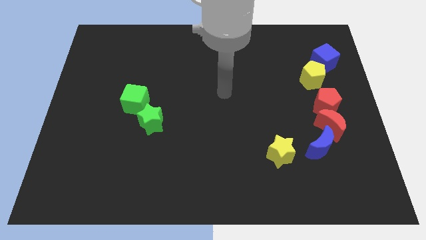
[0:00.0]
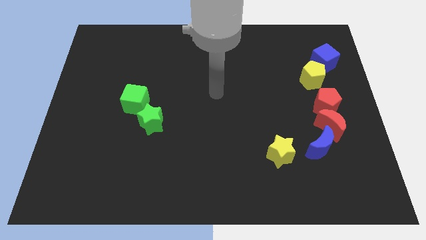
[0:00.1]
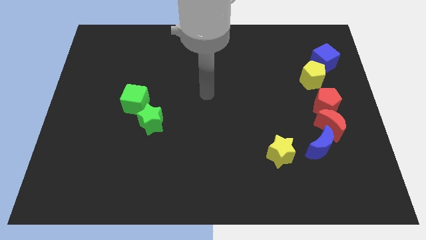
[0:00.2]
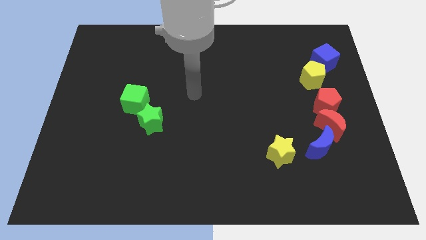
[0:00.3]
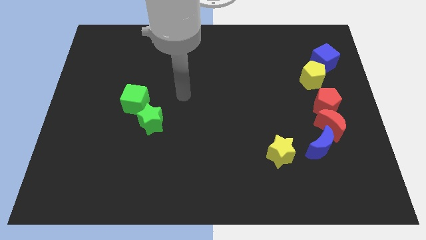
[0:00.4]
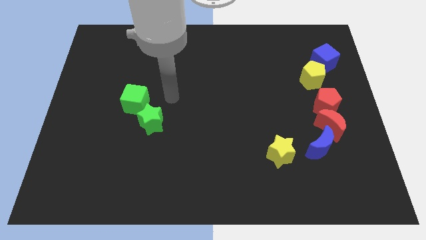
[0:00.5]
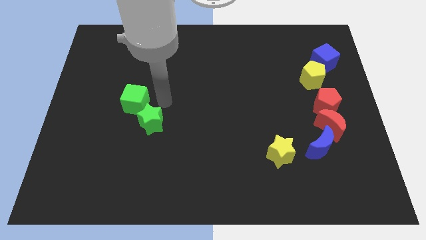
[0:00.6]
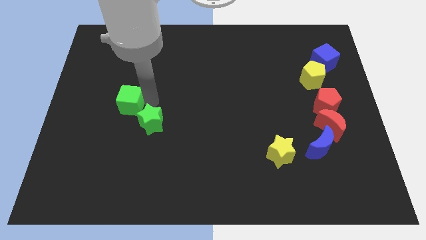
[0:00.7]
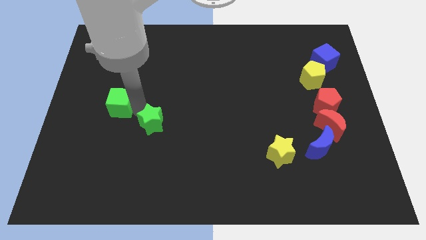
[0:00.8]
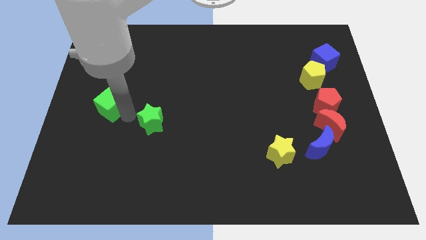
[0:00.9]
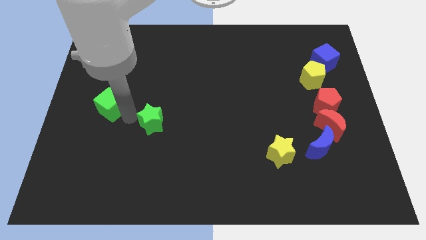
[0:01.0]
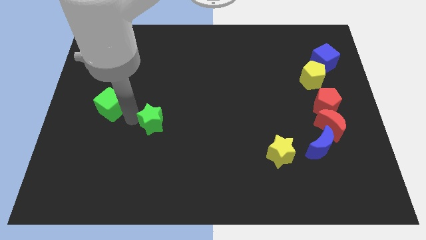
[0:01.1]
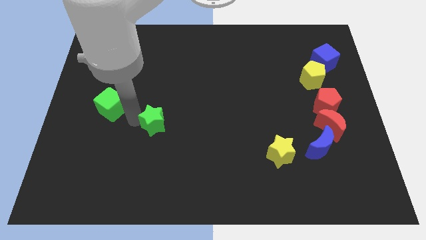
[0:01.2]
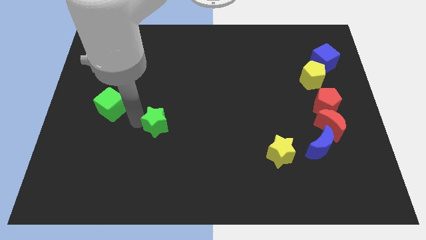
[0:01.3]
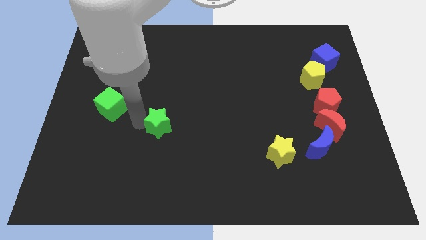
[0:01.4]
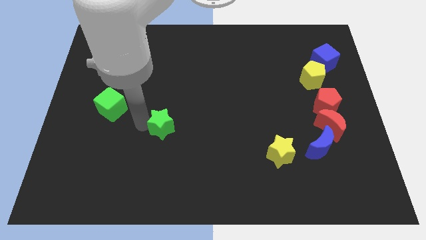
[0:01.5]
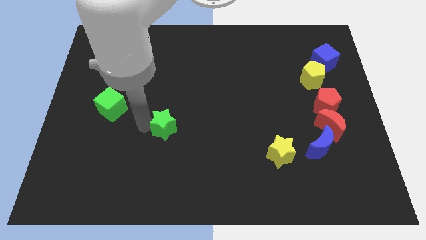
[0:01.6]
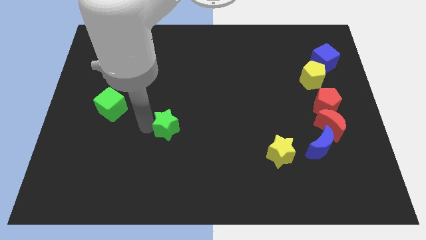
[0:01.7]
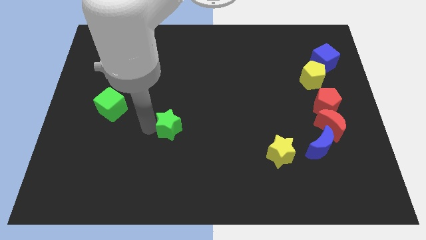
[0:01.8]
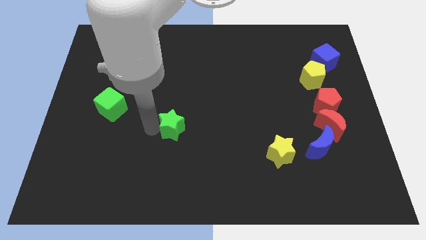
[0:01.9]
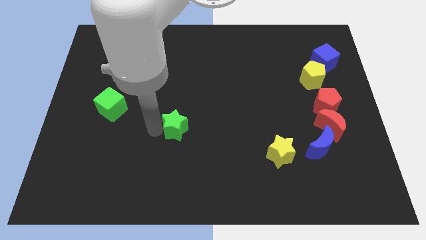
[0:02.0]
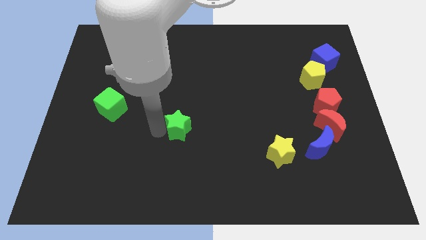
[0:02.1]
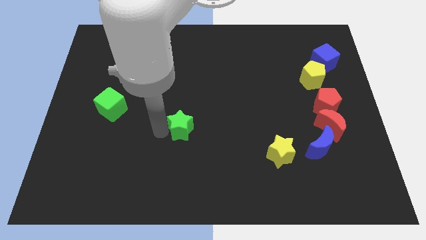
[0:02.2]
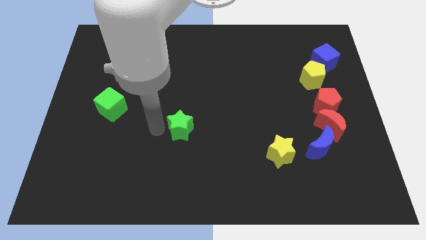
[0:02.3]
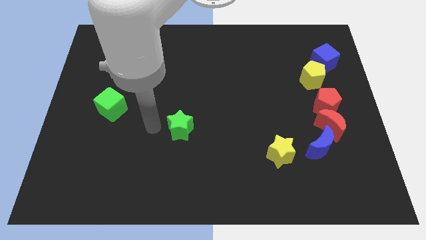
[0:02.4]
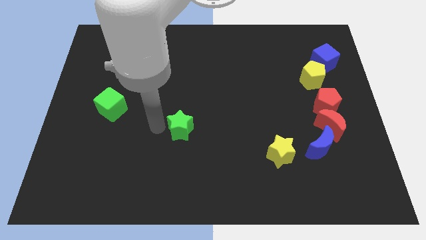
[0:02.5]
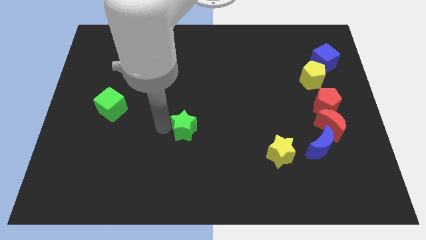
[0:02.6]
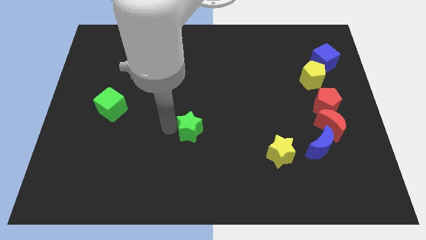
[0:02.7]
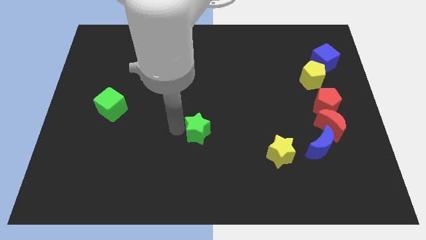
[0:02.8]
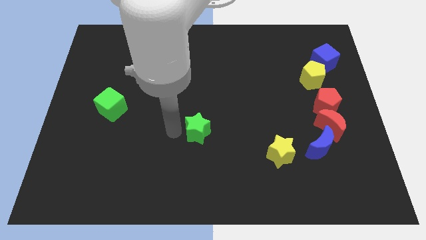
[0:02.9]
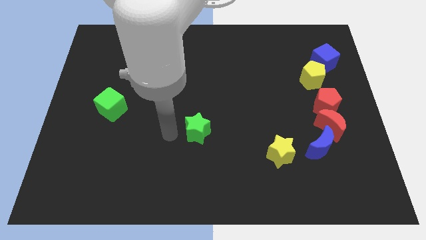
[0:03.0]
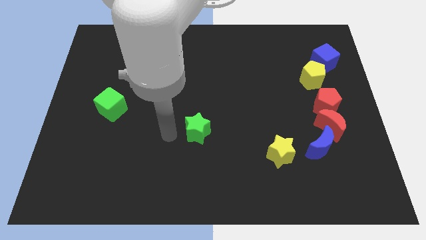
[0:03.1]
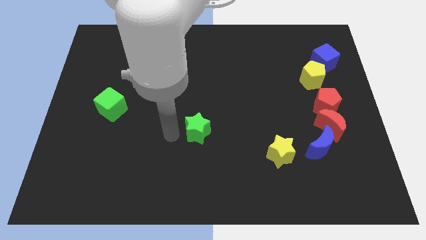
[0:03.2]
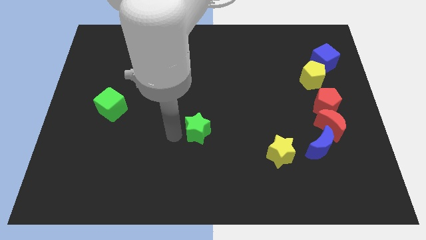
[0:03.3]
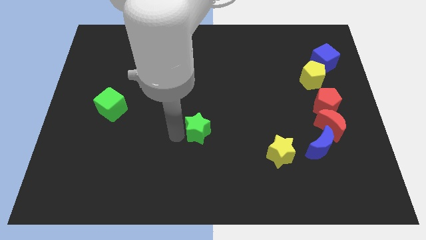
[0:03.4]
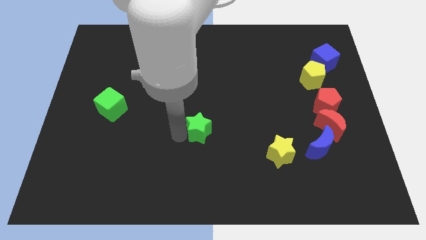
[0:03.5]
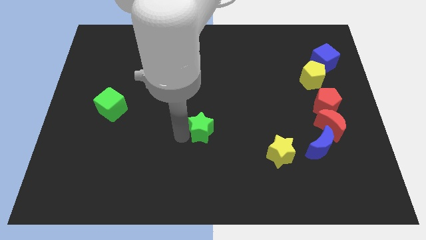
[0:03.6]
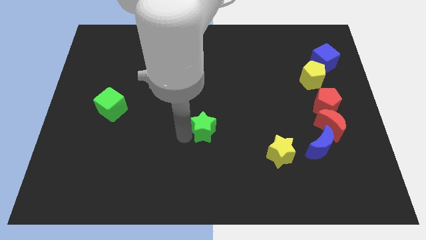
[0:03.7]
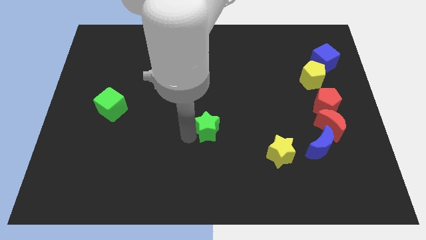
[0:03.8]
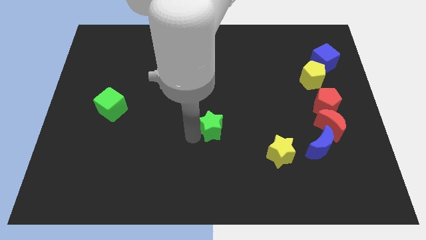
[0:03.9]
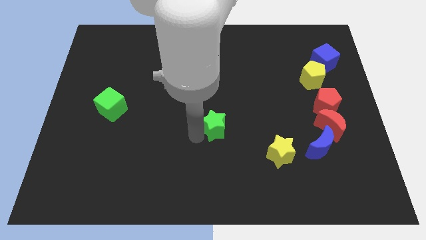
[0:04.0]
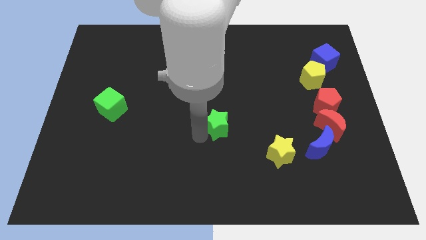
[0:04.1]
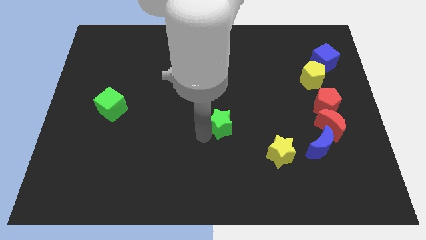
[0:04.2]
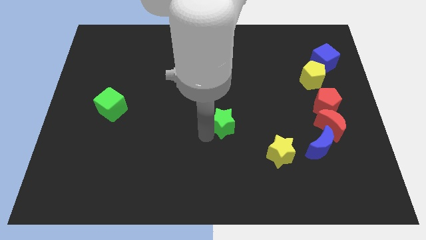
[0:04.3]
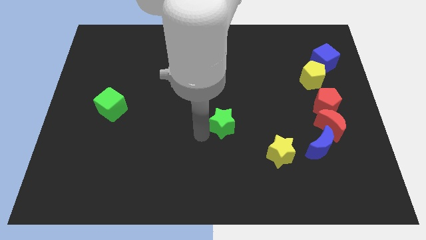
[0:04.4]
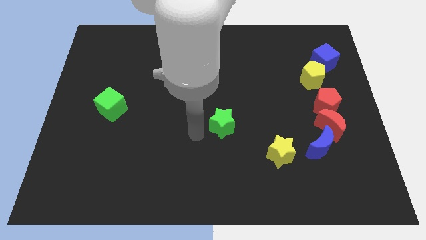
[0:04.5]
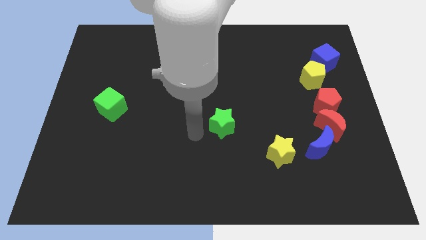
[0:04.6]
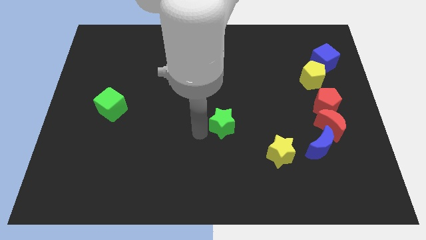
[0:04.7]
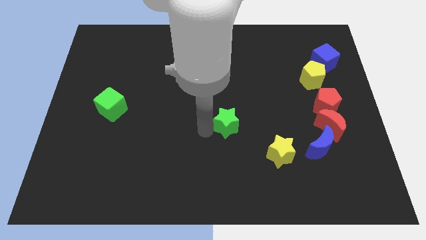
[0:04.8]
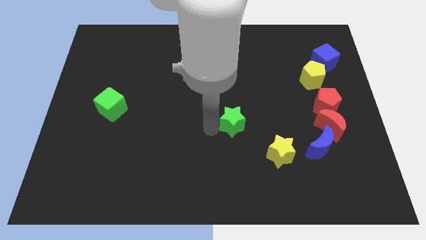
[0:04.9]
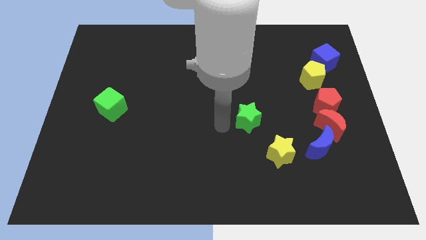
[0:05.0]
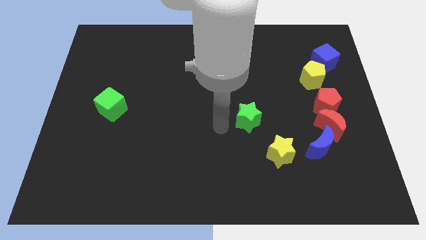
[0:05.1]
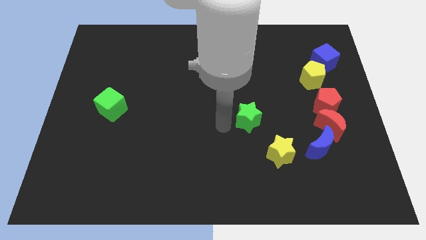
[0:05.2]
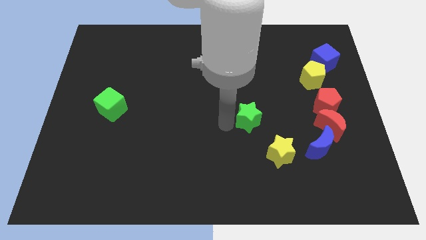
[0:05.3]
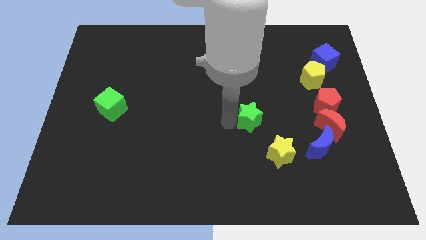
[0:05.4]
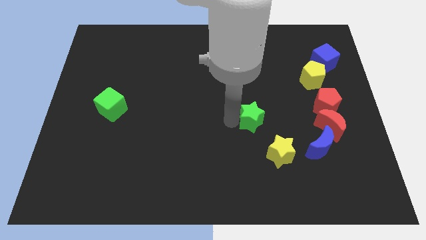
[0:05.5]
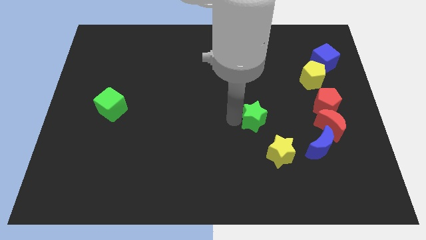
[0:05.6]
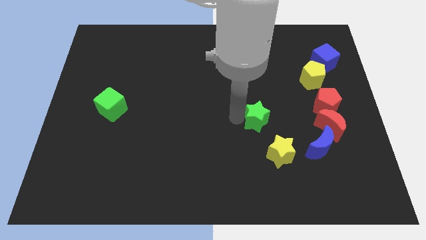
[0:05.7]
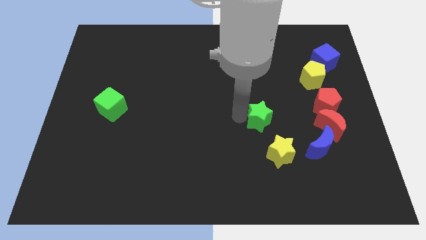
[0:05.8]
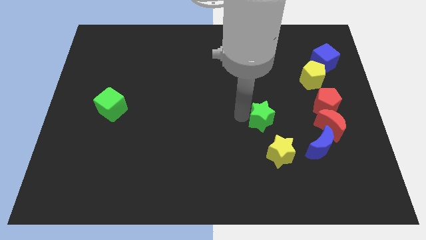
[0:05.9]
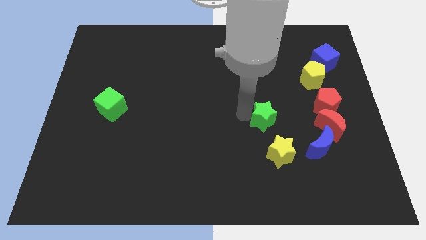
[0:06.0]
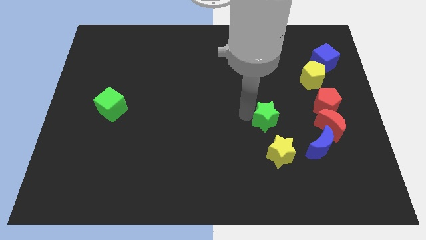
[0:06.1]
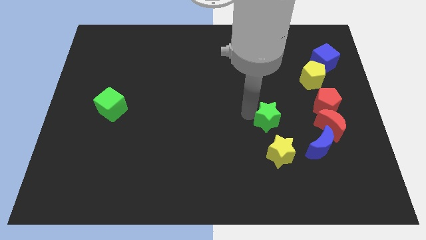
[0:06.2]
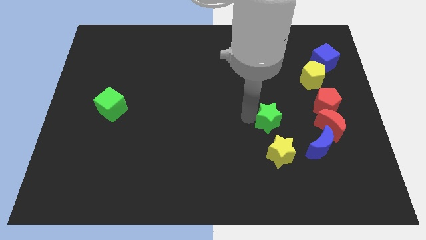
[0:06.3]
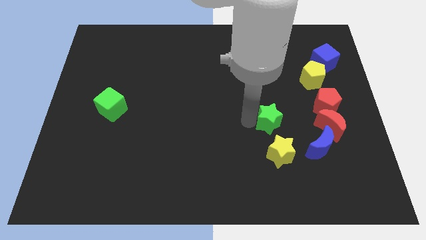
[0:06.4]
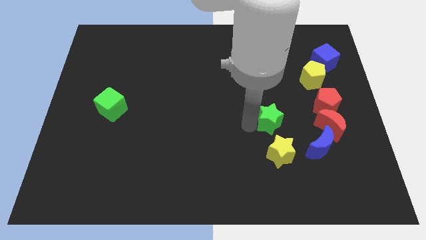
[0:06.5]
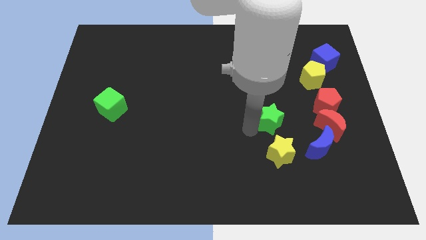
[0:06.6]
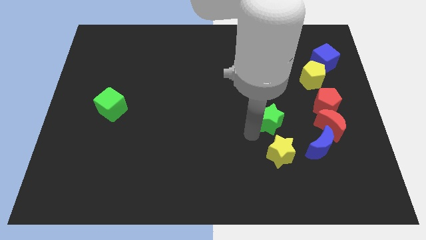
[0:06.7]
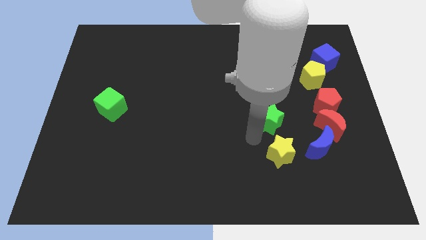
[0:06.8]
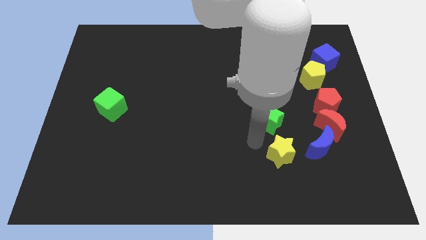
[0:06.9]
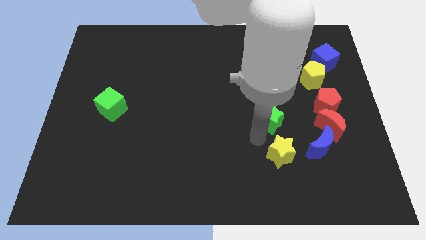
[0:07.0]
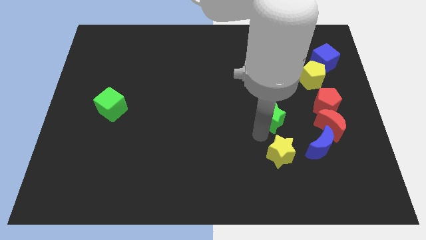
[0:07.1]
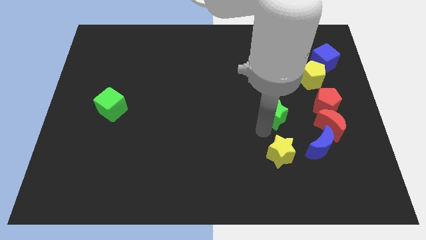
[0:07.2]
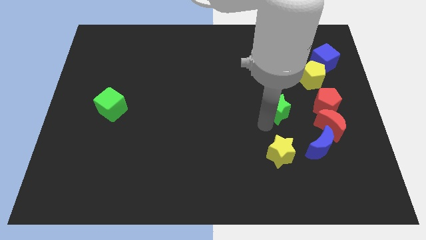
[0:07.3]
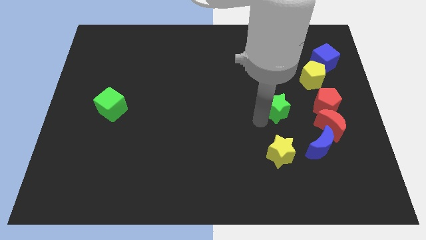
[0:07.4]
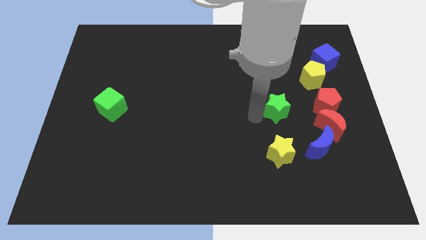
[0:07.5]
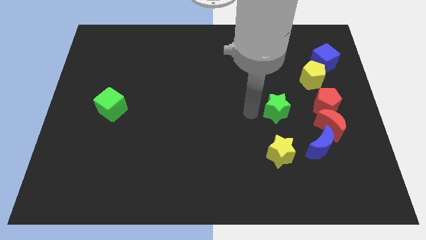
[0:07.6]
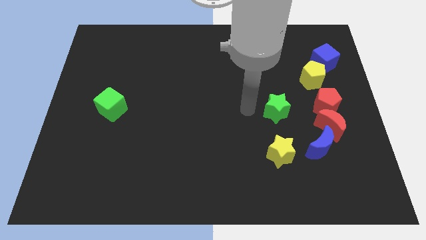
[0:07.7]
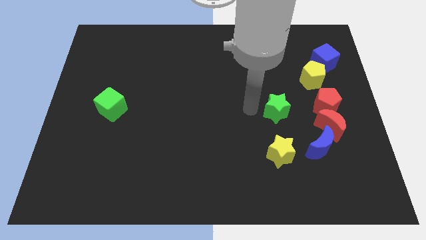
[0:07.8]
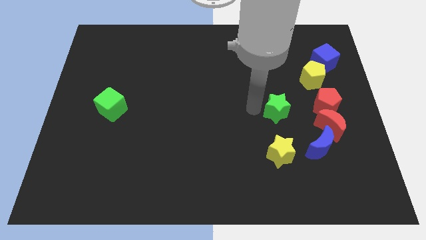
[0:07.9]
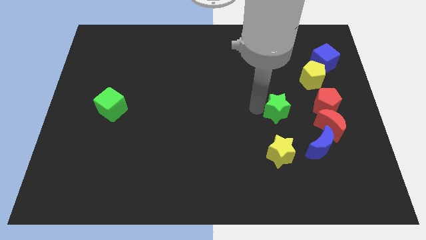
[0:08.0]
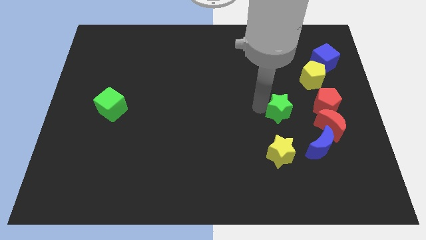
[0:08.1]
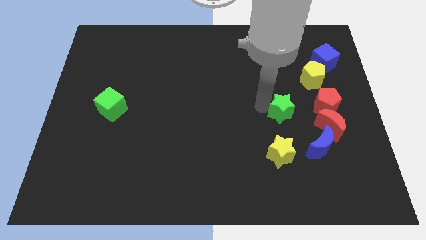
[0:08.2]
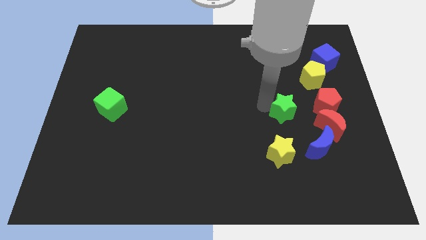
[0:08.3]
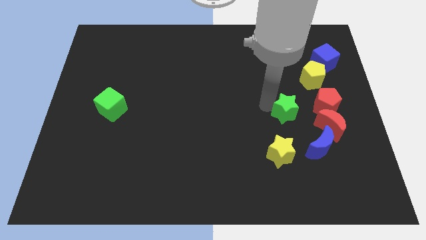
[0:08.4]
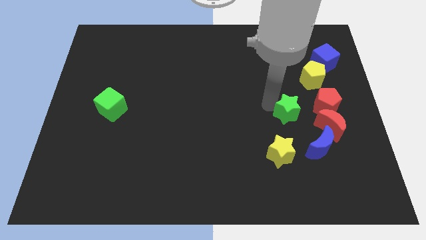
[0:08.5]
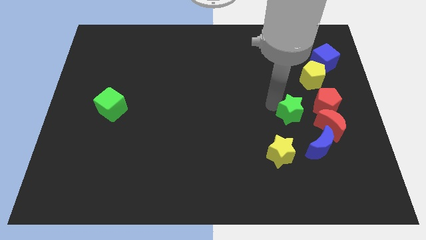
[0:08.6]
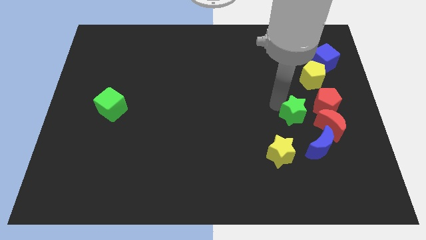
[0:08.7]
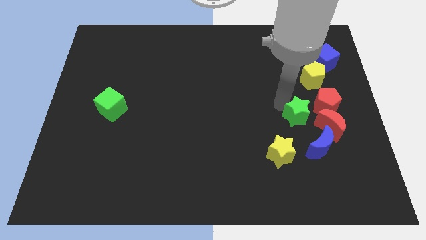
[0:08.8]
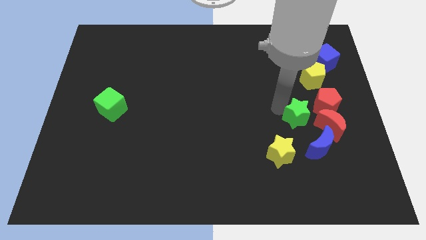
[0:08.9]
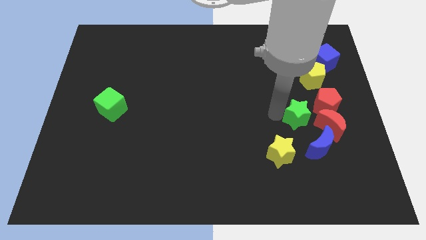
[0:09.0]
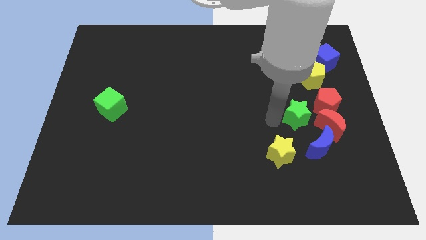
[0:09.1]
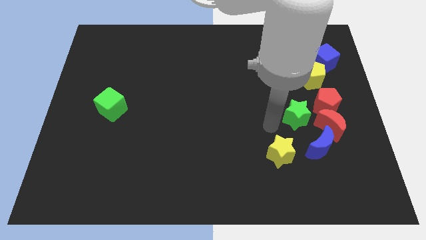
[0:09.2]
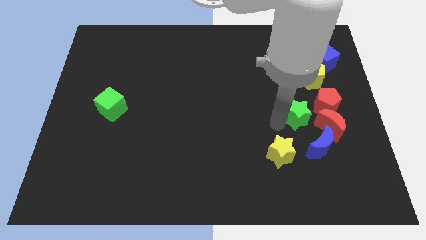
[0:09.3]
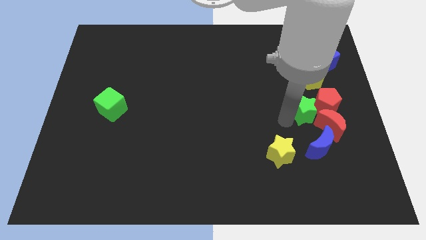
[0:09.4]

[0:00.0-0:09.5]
slide the green star towards the red pentagon
